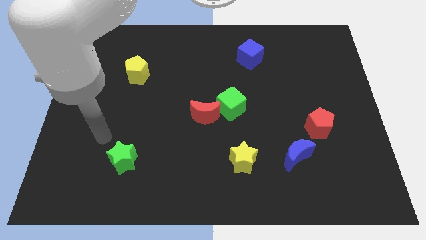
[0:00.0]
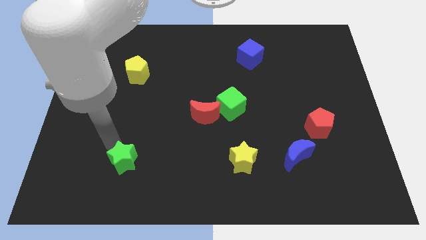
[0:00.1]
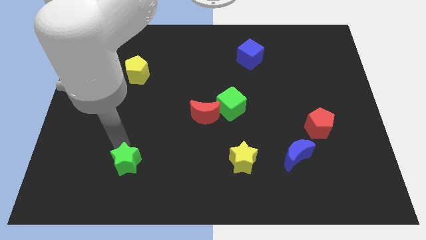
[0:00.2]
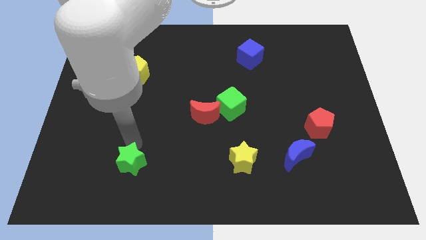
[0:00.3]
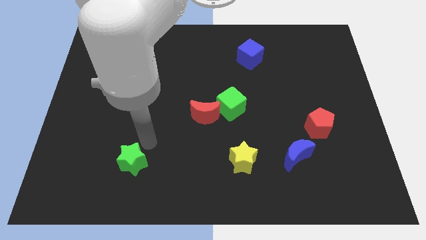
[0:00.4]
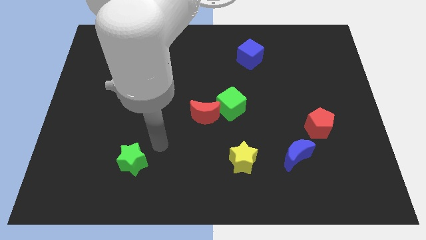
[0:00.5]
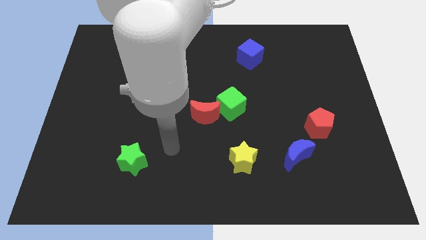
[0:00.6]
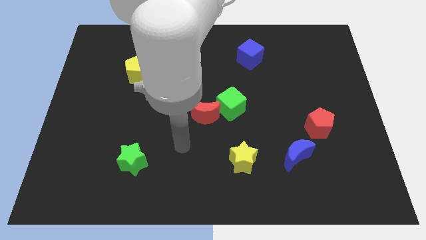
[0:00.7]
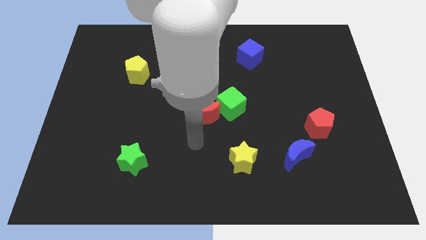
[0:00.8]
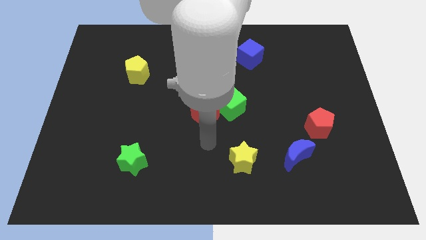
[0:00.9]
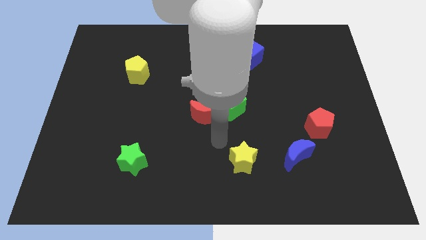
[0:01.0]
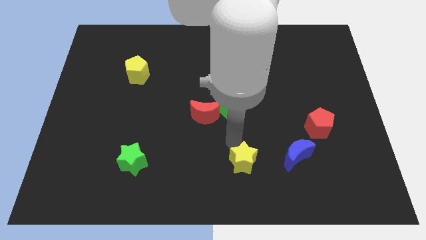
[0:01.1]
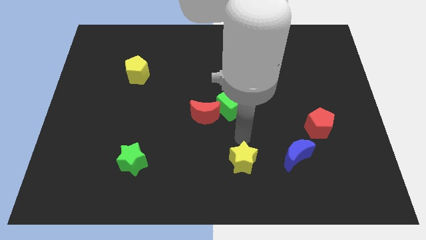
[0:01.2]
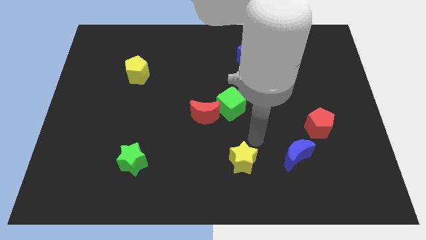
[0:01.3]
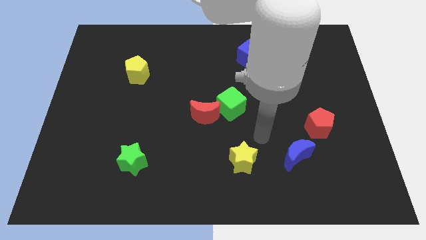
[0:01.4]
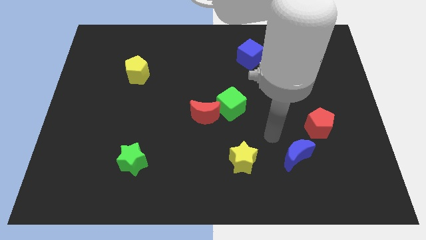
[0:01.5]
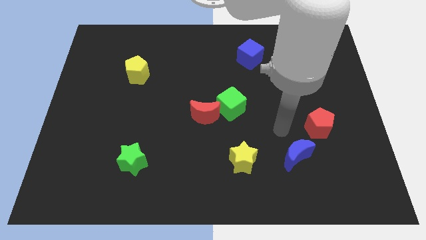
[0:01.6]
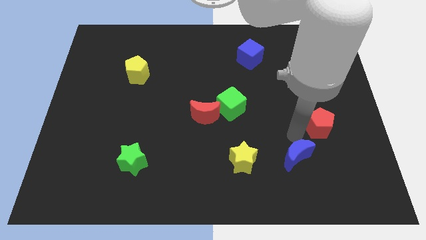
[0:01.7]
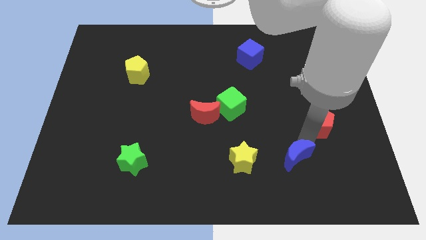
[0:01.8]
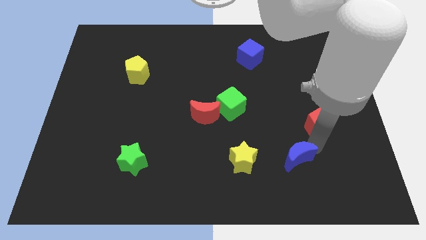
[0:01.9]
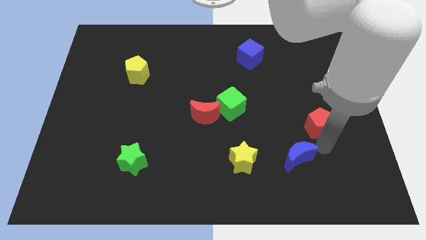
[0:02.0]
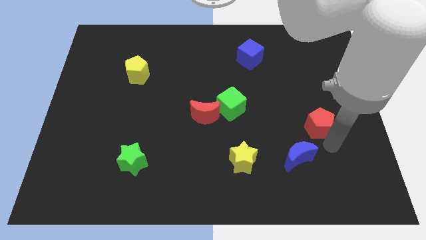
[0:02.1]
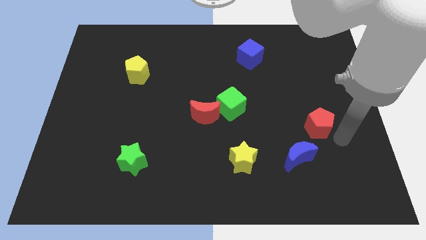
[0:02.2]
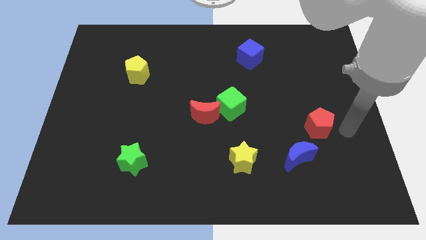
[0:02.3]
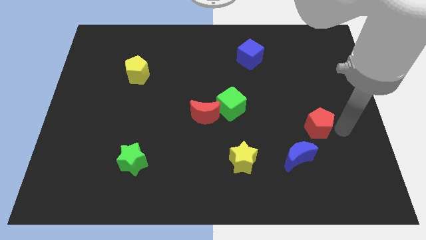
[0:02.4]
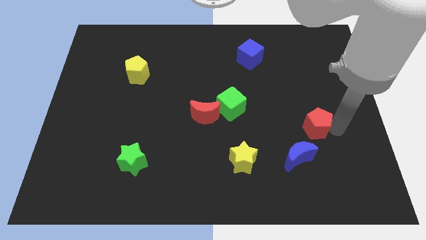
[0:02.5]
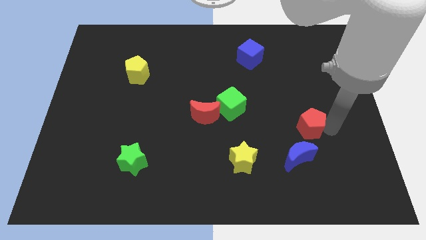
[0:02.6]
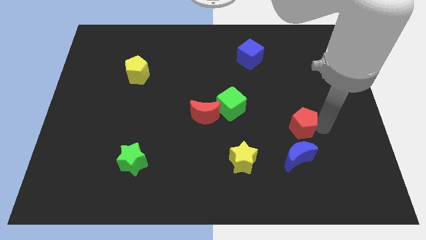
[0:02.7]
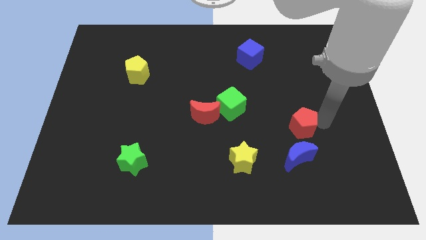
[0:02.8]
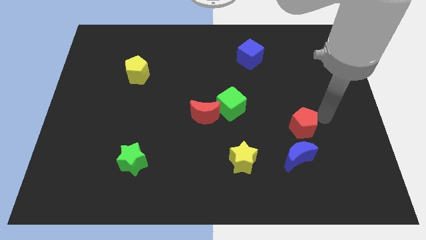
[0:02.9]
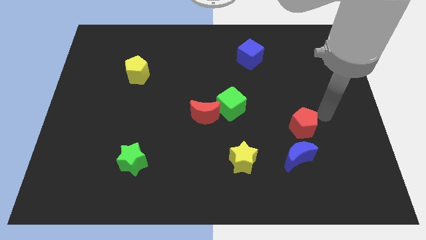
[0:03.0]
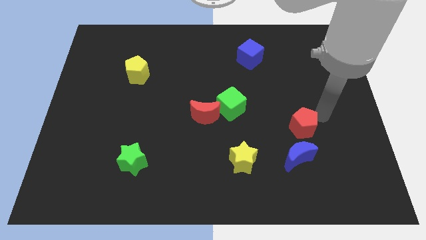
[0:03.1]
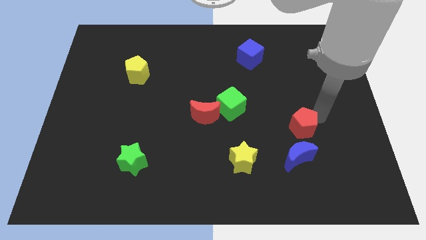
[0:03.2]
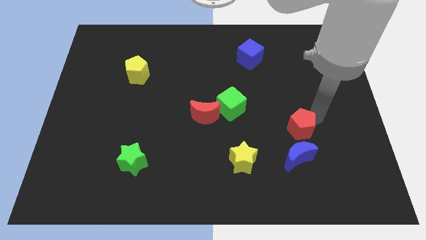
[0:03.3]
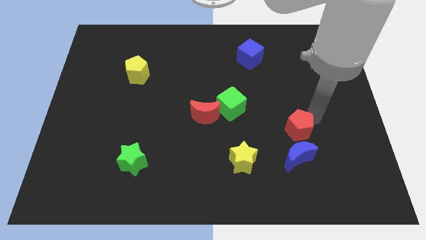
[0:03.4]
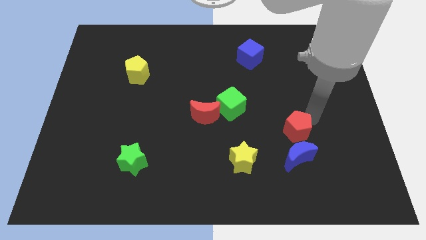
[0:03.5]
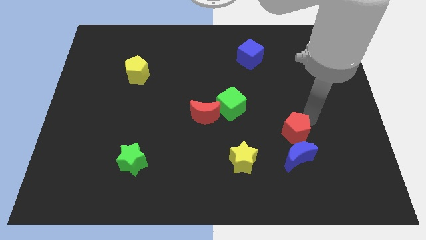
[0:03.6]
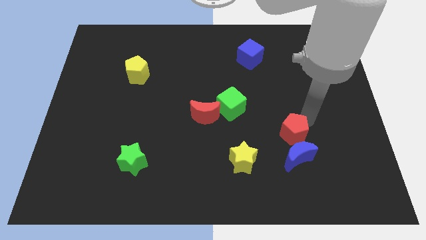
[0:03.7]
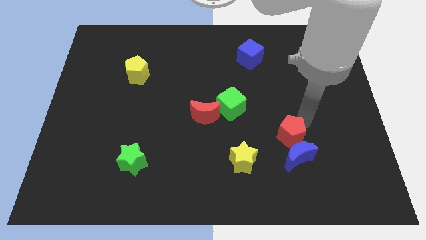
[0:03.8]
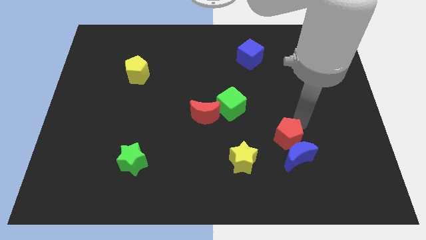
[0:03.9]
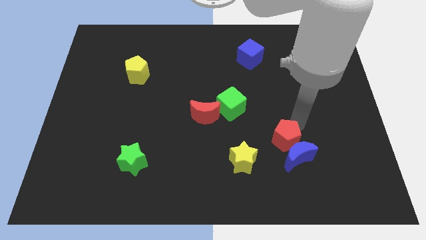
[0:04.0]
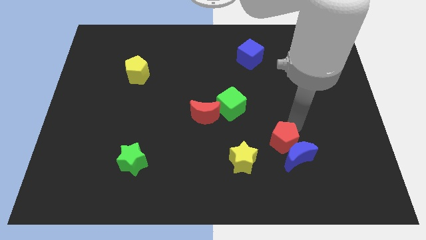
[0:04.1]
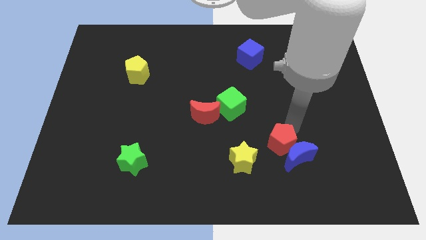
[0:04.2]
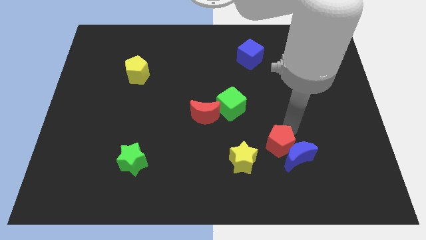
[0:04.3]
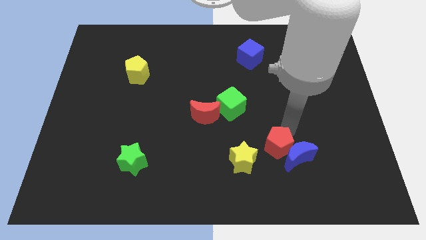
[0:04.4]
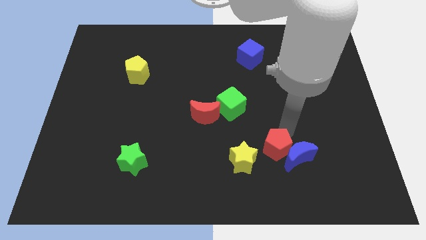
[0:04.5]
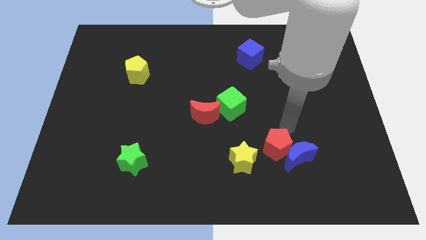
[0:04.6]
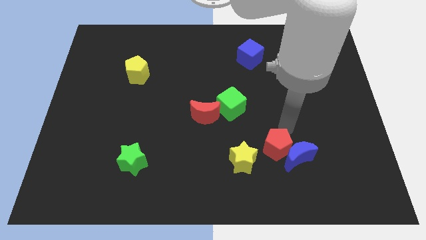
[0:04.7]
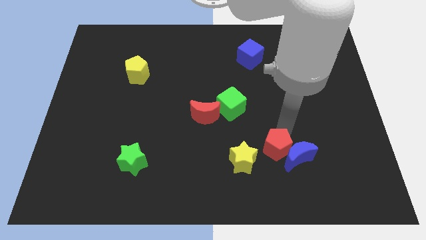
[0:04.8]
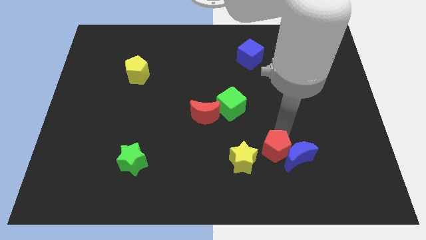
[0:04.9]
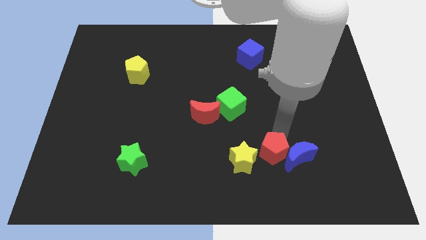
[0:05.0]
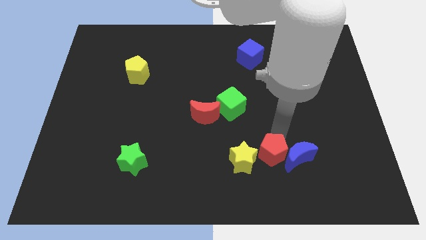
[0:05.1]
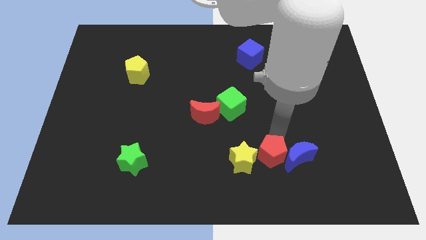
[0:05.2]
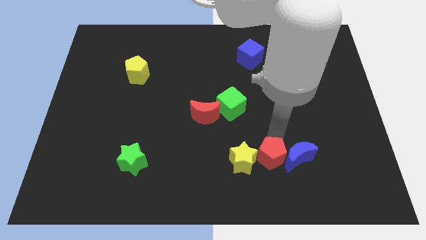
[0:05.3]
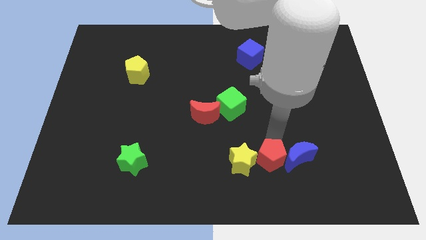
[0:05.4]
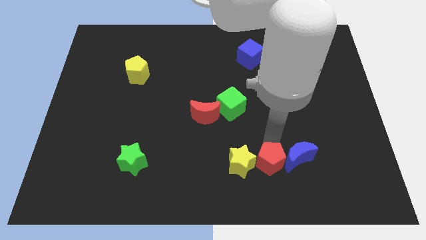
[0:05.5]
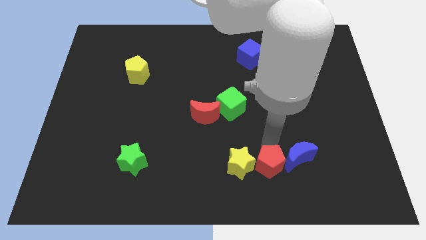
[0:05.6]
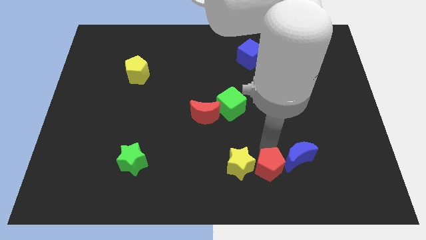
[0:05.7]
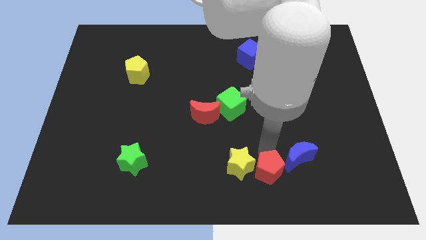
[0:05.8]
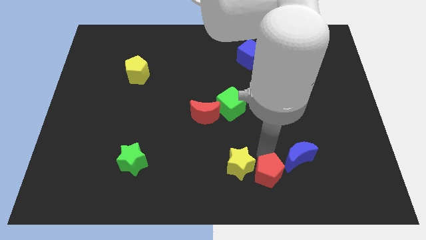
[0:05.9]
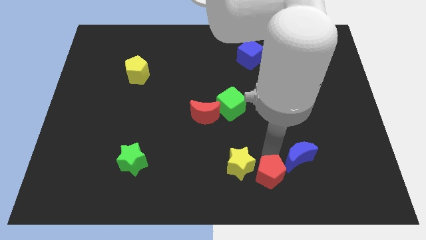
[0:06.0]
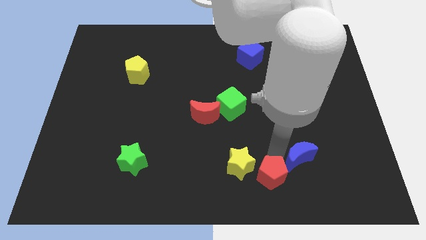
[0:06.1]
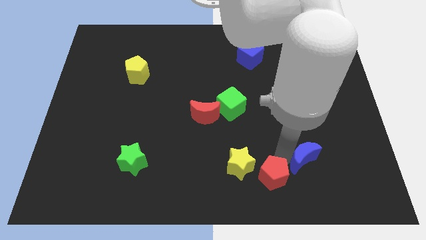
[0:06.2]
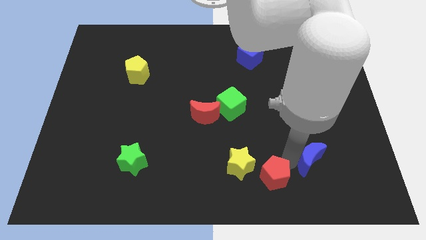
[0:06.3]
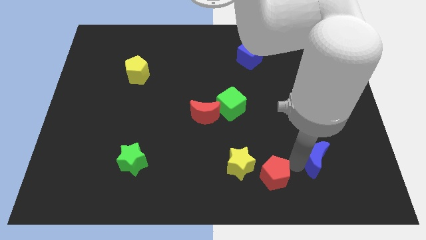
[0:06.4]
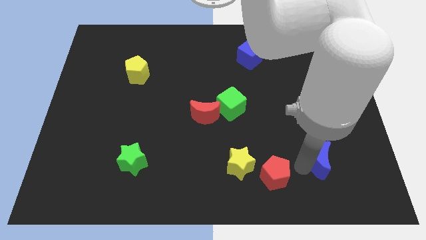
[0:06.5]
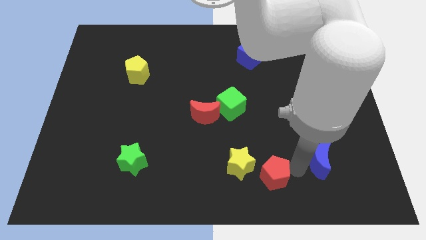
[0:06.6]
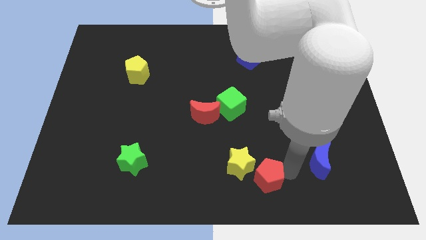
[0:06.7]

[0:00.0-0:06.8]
push the red pentagon to the bottom side
